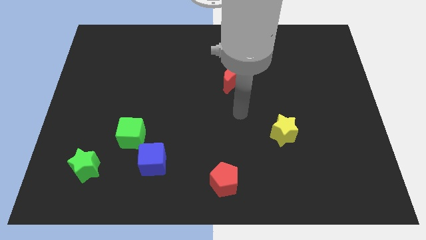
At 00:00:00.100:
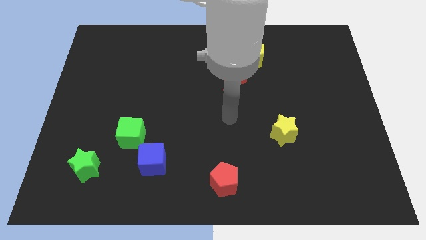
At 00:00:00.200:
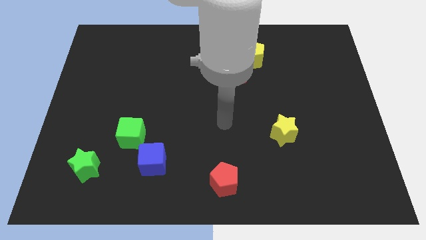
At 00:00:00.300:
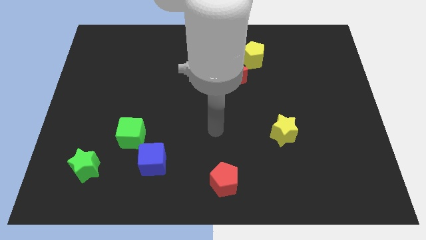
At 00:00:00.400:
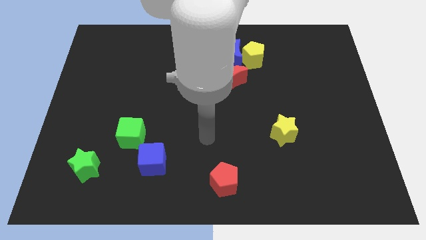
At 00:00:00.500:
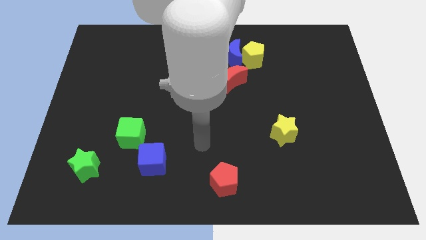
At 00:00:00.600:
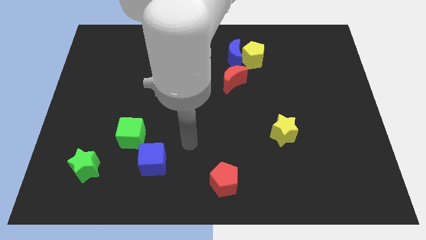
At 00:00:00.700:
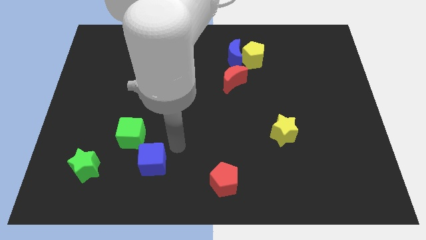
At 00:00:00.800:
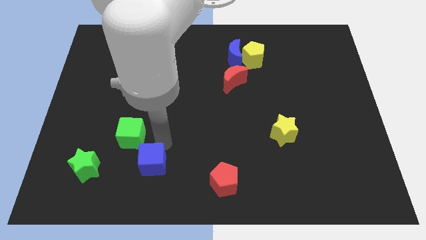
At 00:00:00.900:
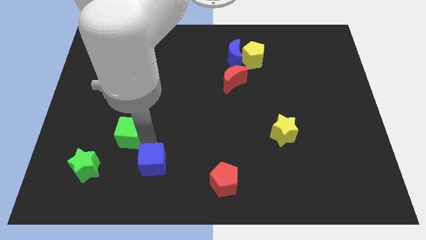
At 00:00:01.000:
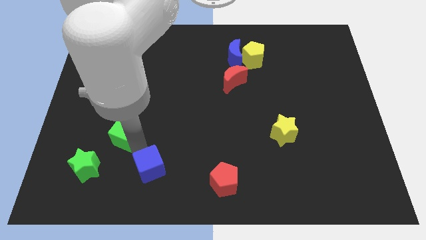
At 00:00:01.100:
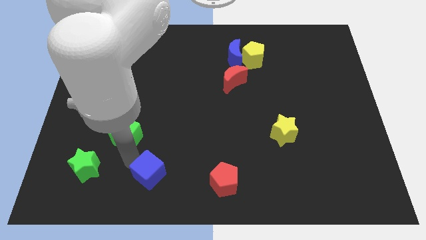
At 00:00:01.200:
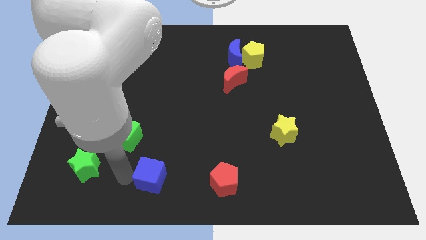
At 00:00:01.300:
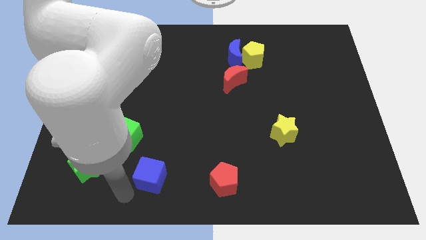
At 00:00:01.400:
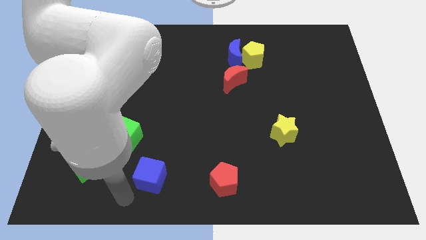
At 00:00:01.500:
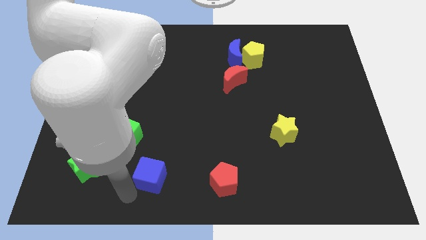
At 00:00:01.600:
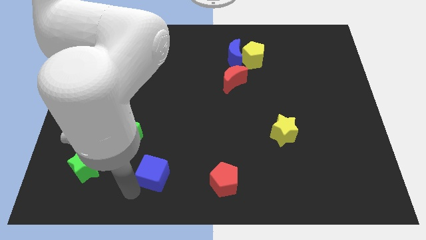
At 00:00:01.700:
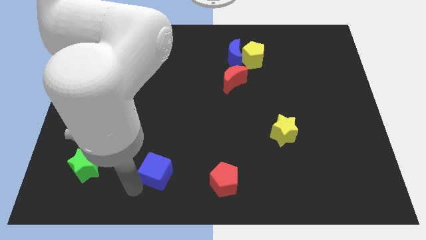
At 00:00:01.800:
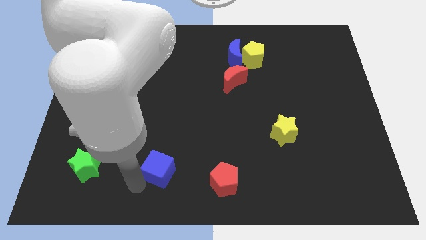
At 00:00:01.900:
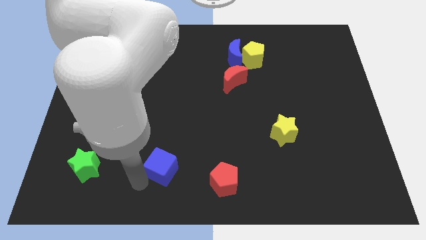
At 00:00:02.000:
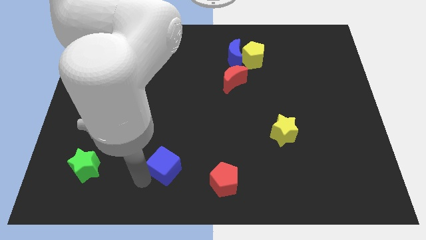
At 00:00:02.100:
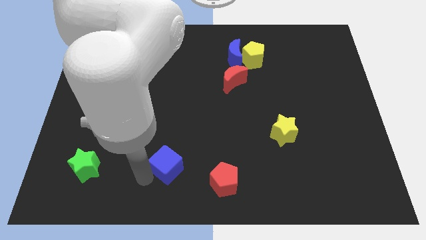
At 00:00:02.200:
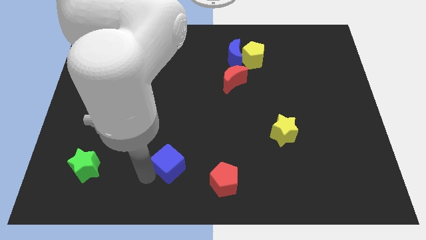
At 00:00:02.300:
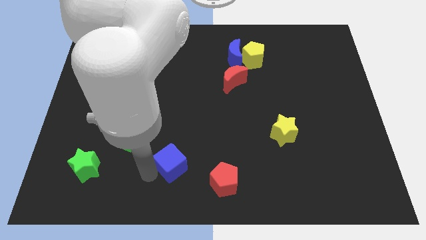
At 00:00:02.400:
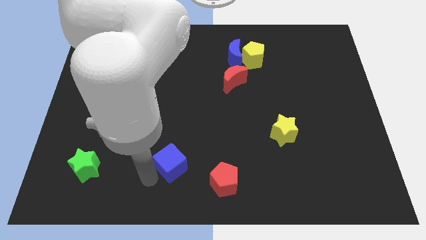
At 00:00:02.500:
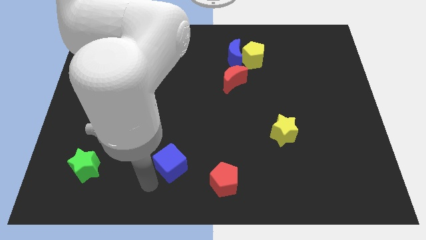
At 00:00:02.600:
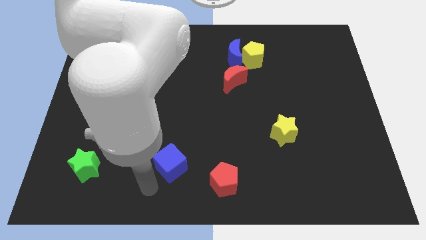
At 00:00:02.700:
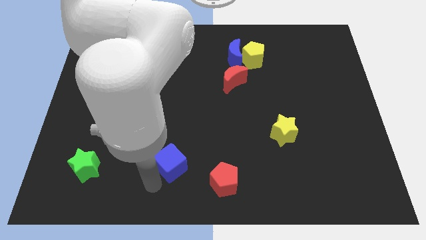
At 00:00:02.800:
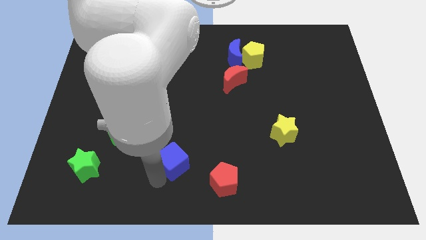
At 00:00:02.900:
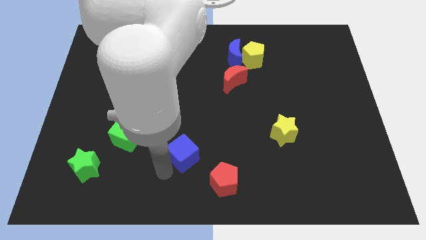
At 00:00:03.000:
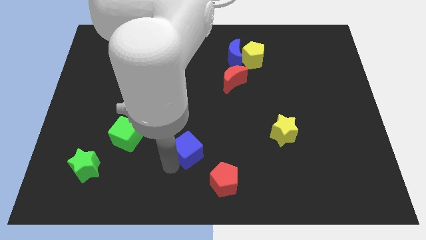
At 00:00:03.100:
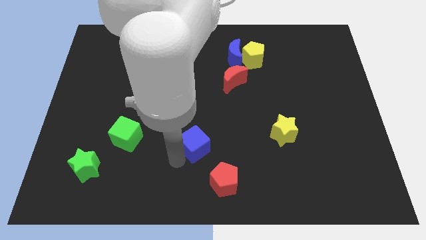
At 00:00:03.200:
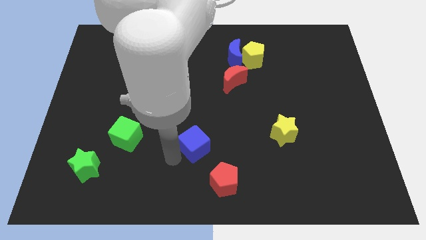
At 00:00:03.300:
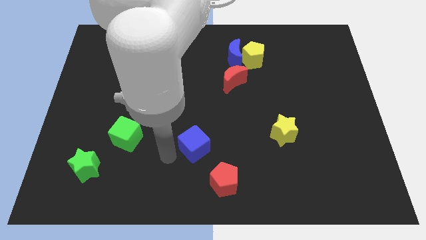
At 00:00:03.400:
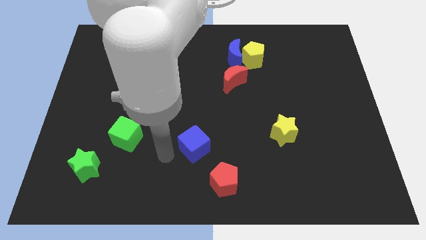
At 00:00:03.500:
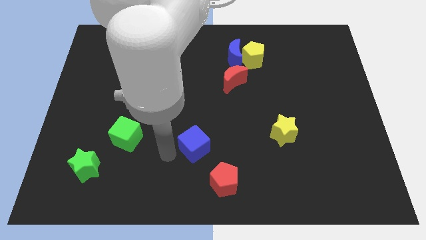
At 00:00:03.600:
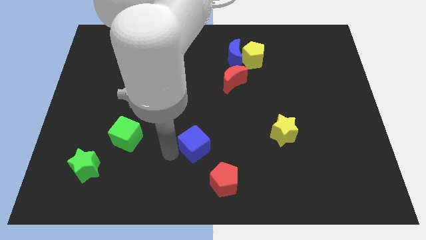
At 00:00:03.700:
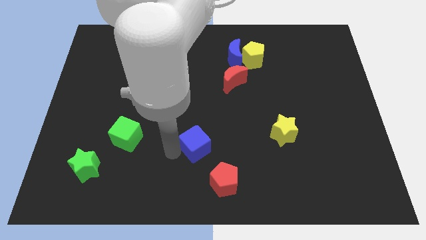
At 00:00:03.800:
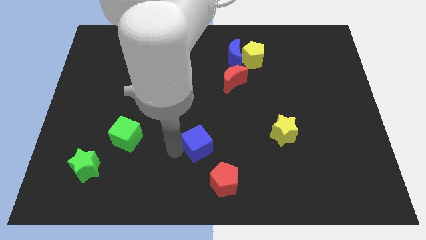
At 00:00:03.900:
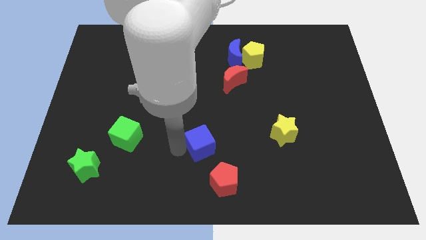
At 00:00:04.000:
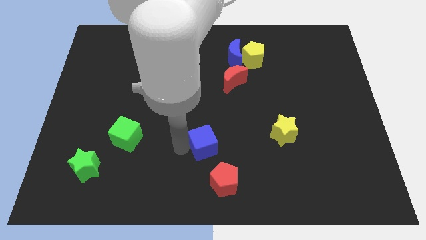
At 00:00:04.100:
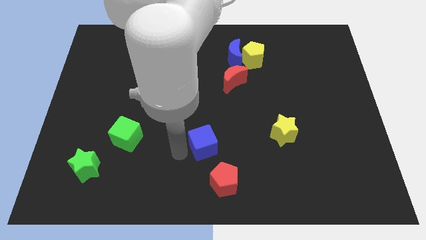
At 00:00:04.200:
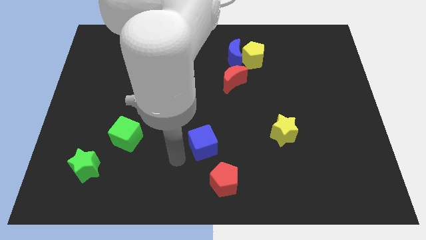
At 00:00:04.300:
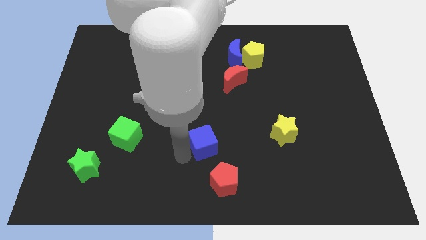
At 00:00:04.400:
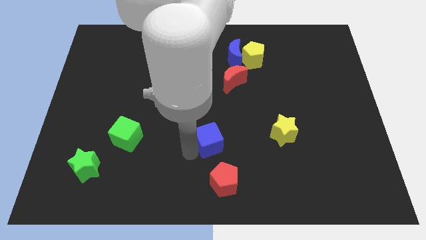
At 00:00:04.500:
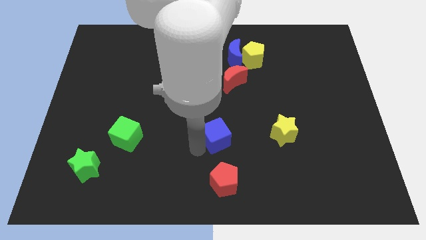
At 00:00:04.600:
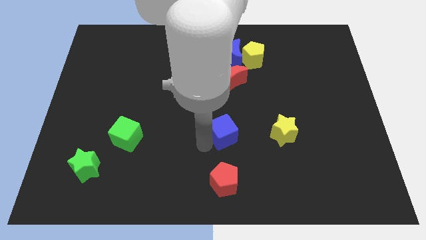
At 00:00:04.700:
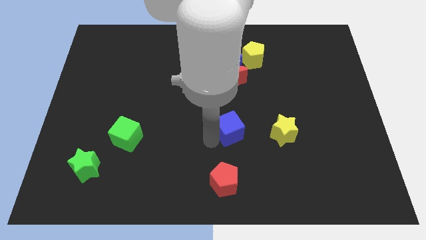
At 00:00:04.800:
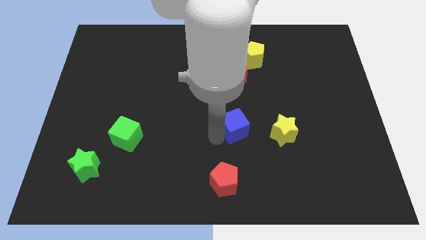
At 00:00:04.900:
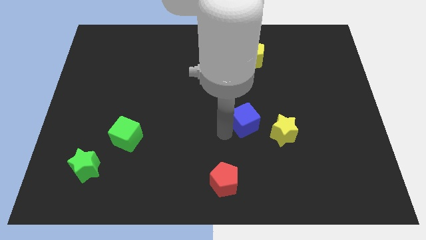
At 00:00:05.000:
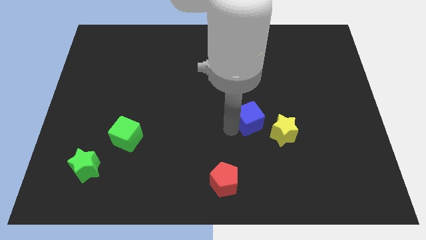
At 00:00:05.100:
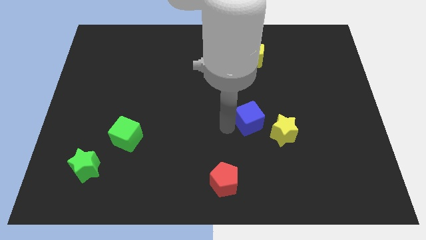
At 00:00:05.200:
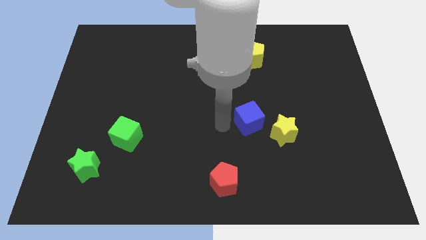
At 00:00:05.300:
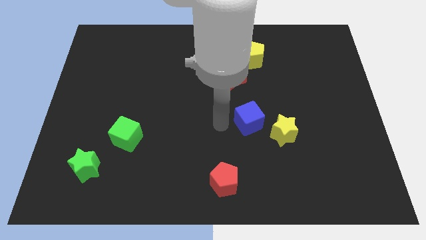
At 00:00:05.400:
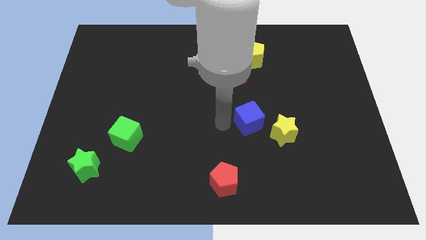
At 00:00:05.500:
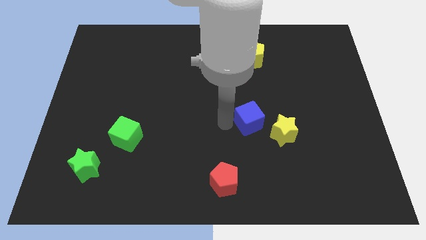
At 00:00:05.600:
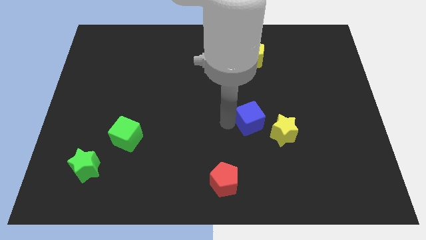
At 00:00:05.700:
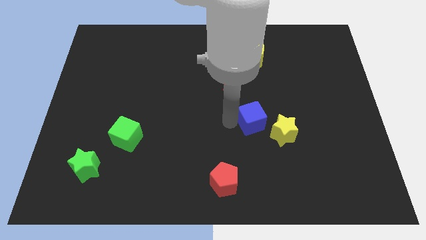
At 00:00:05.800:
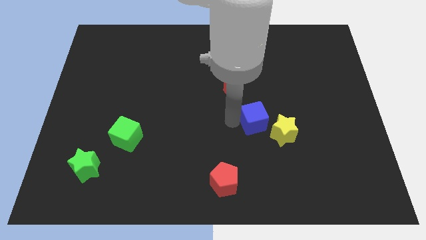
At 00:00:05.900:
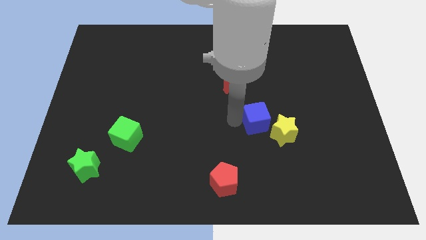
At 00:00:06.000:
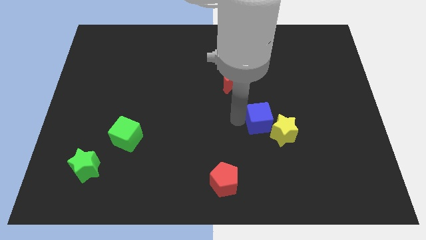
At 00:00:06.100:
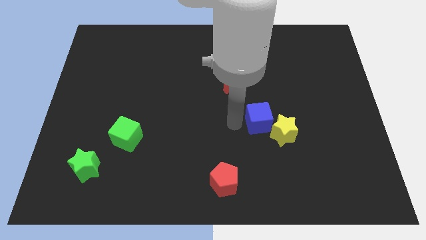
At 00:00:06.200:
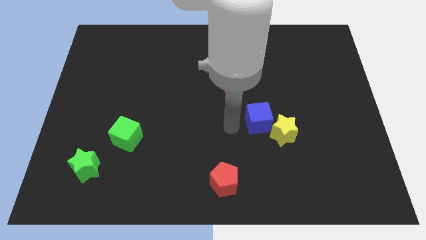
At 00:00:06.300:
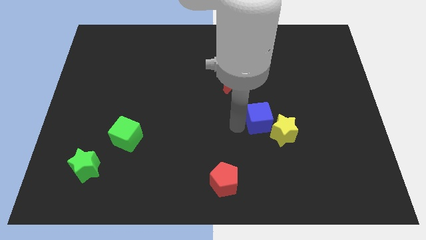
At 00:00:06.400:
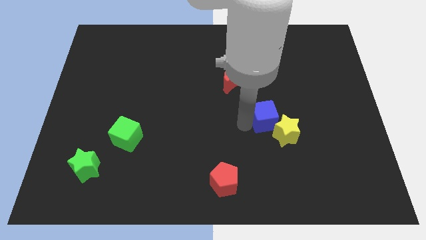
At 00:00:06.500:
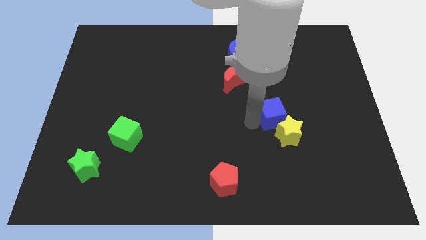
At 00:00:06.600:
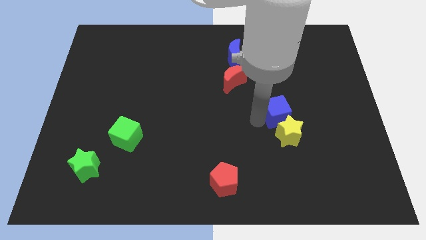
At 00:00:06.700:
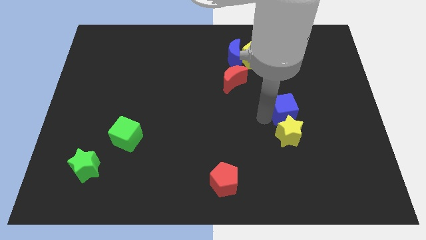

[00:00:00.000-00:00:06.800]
slide the blue cube to the top right of the yellow star

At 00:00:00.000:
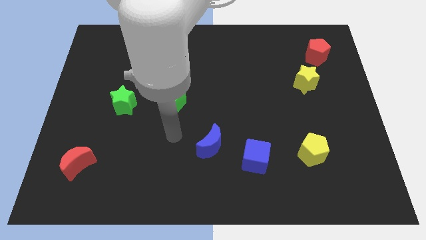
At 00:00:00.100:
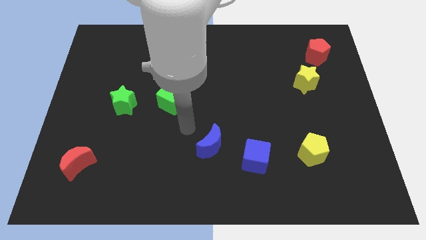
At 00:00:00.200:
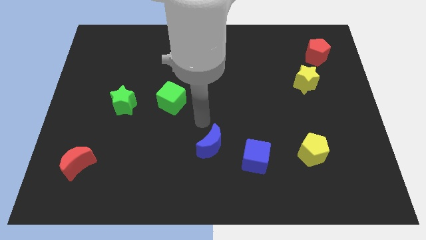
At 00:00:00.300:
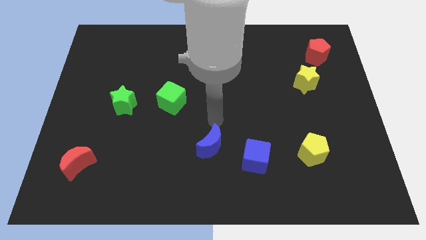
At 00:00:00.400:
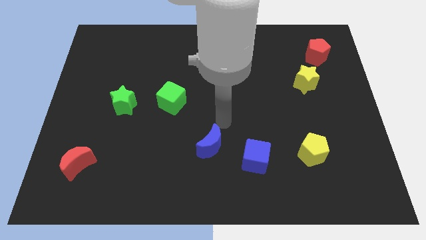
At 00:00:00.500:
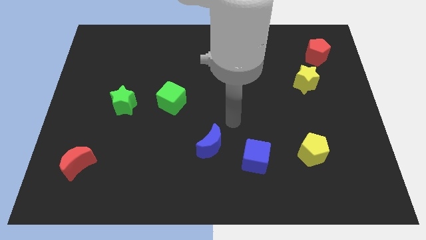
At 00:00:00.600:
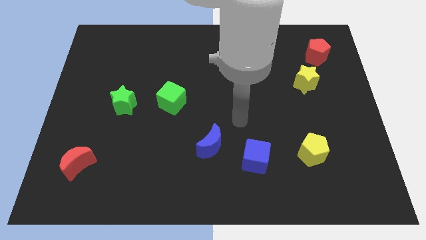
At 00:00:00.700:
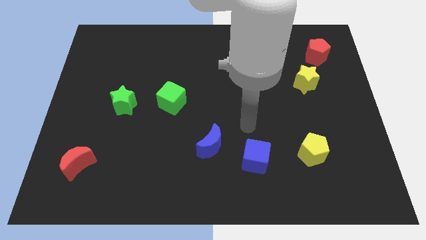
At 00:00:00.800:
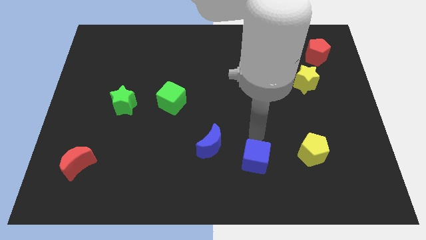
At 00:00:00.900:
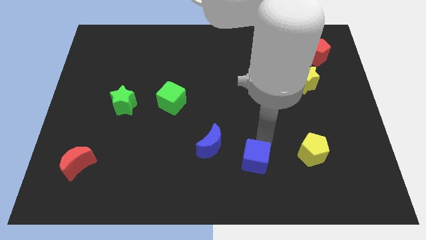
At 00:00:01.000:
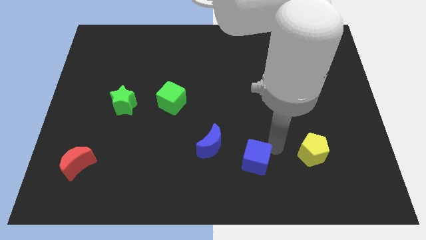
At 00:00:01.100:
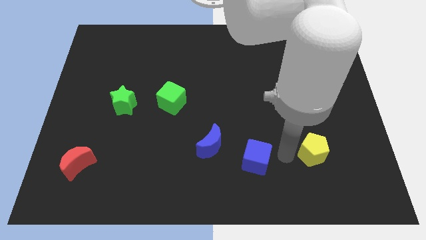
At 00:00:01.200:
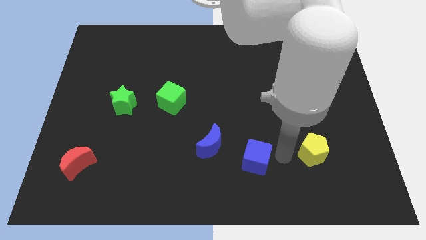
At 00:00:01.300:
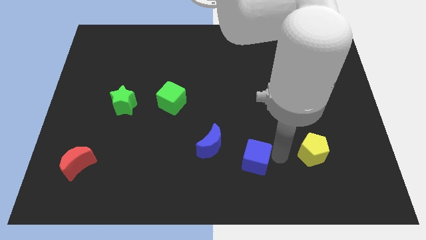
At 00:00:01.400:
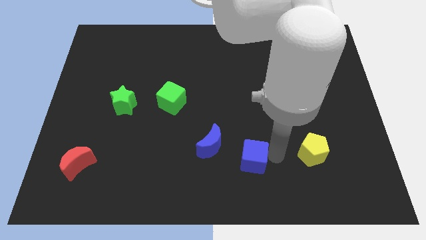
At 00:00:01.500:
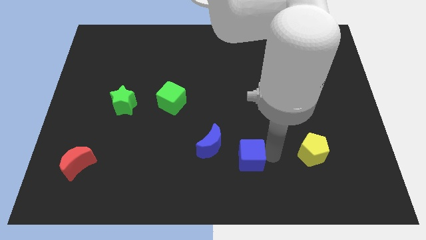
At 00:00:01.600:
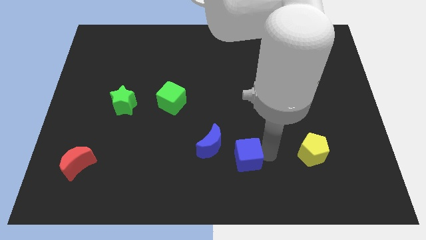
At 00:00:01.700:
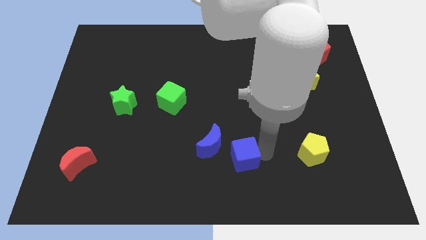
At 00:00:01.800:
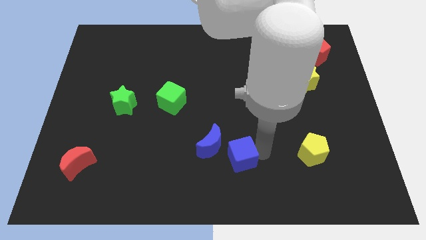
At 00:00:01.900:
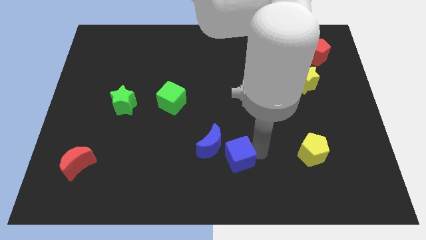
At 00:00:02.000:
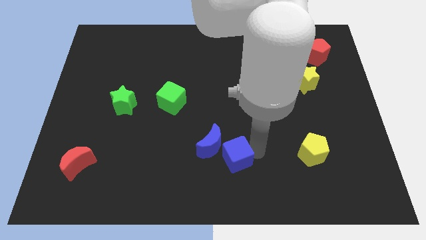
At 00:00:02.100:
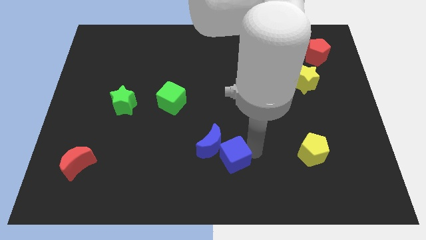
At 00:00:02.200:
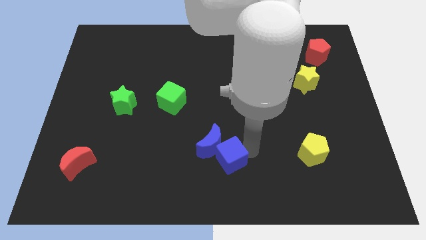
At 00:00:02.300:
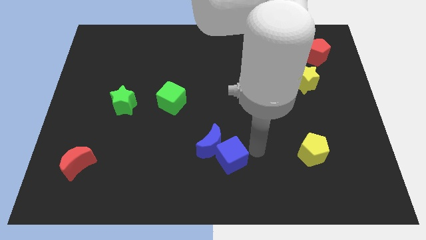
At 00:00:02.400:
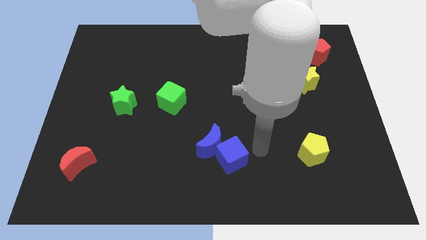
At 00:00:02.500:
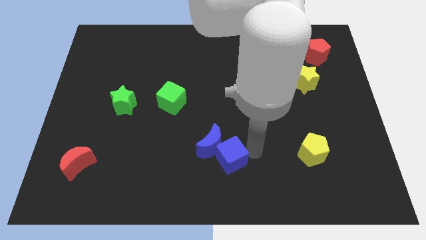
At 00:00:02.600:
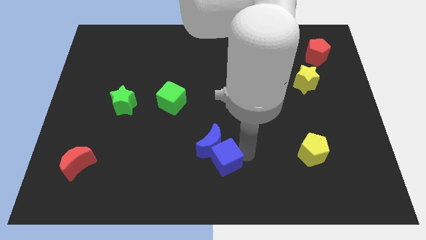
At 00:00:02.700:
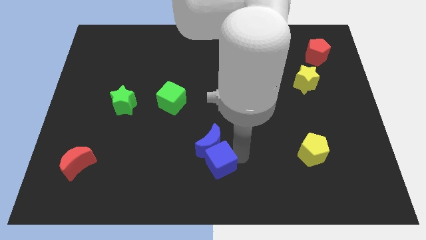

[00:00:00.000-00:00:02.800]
move the blue cube to the bottom left of the blue moon
